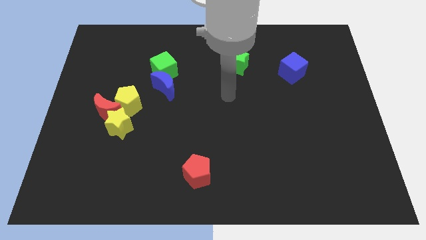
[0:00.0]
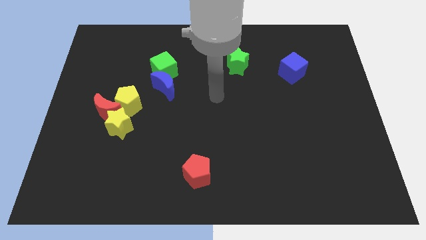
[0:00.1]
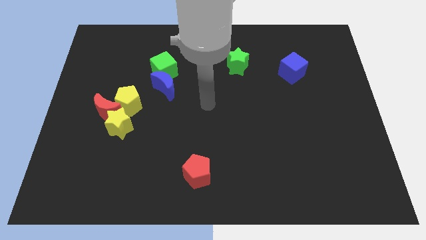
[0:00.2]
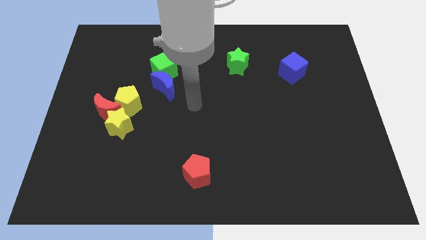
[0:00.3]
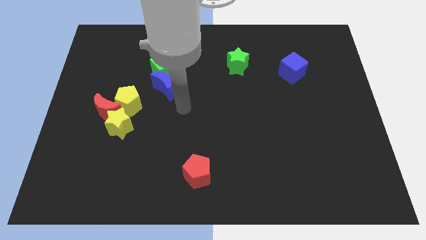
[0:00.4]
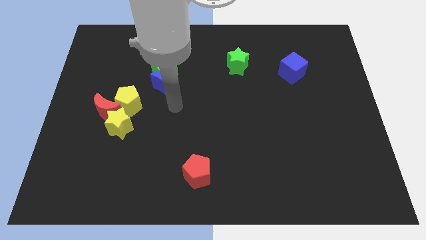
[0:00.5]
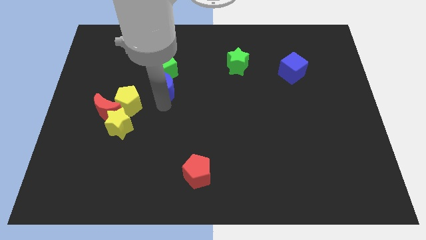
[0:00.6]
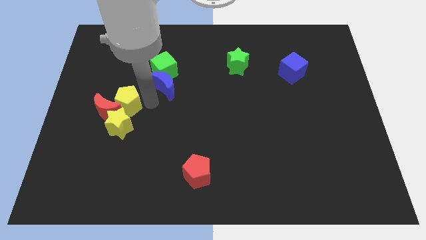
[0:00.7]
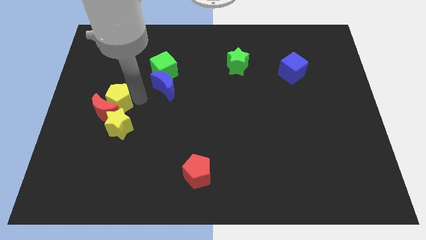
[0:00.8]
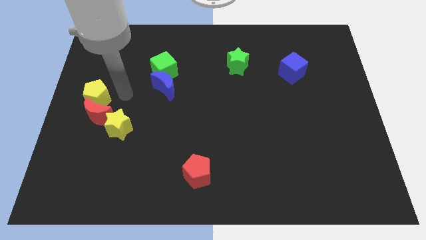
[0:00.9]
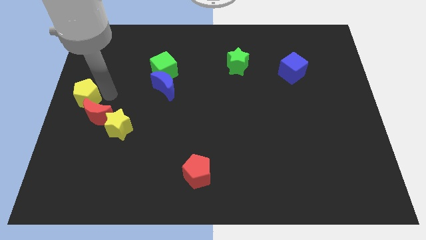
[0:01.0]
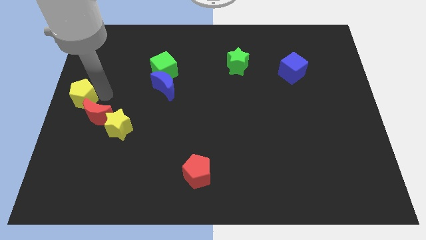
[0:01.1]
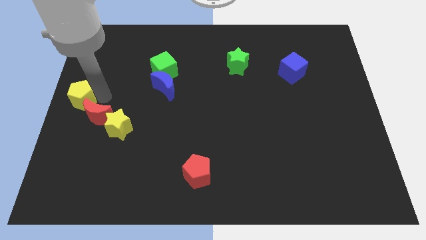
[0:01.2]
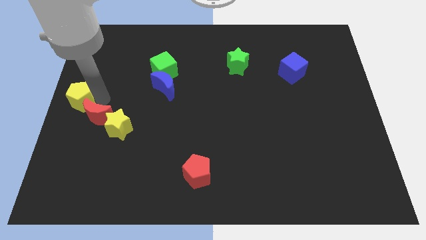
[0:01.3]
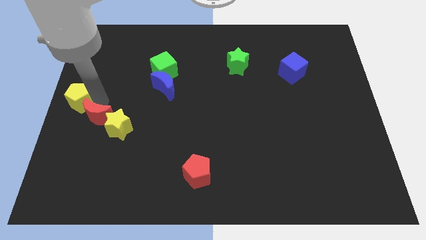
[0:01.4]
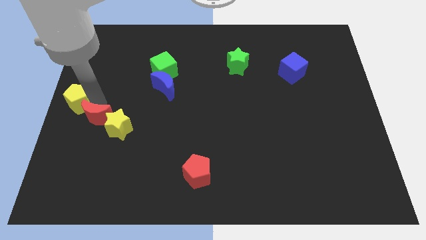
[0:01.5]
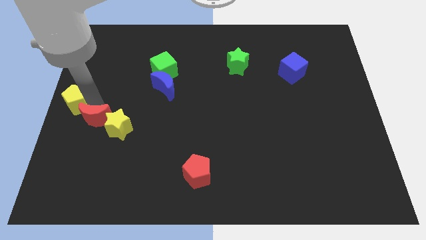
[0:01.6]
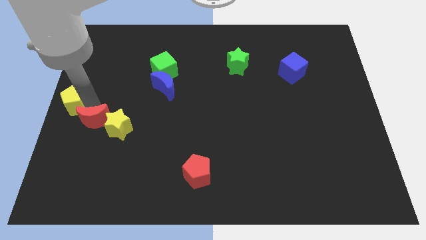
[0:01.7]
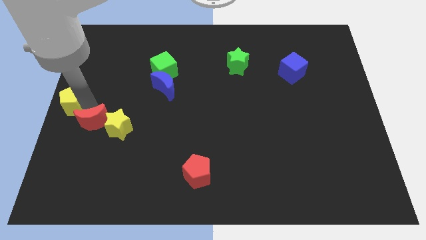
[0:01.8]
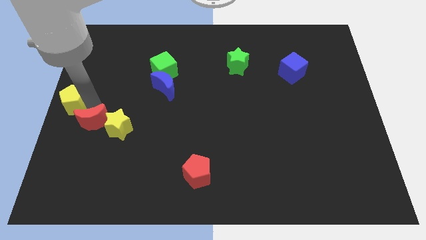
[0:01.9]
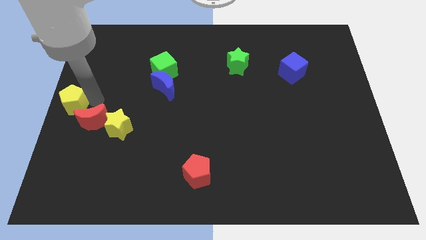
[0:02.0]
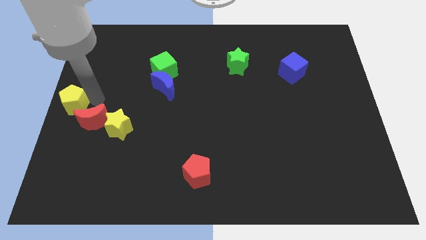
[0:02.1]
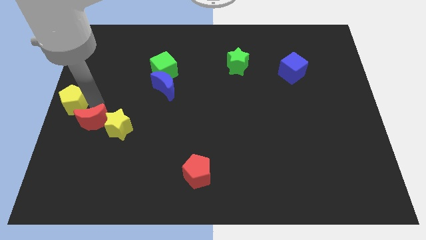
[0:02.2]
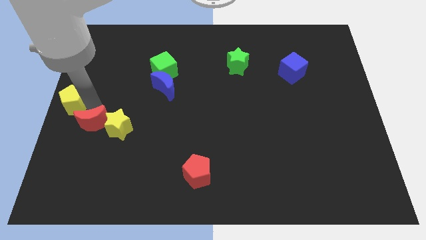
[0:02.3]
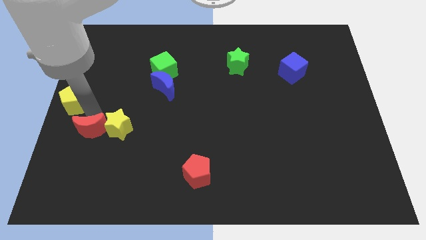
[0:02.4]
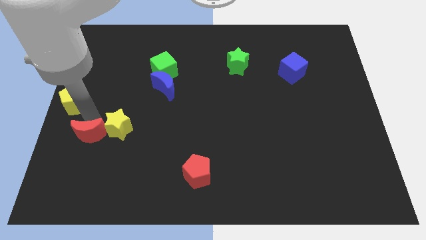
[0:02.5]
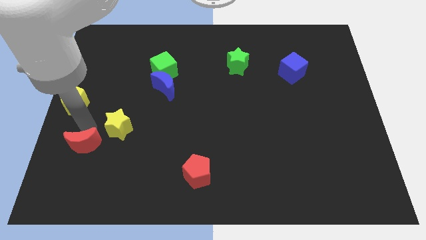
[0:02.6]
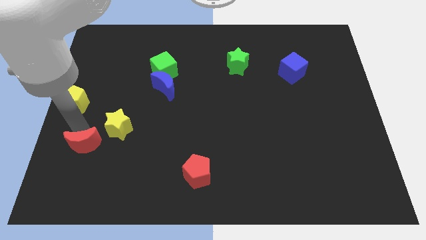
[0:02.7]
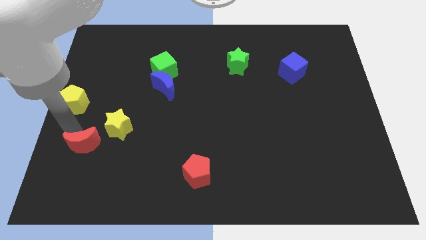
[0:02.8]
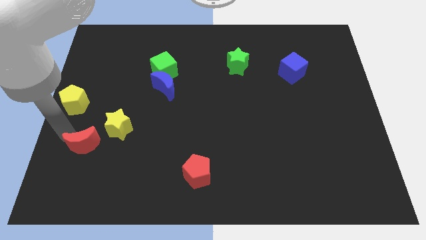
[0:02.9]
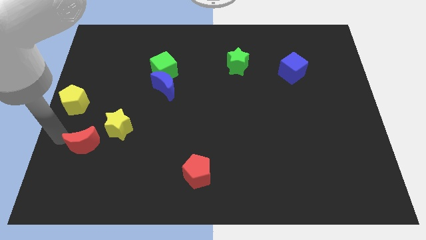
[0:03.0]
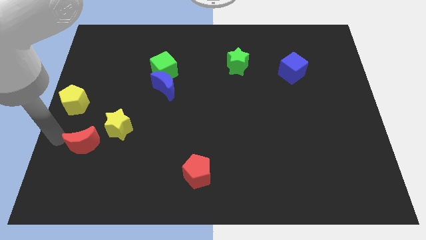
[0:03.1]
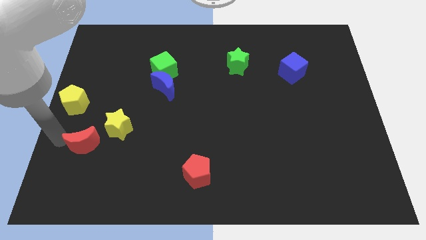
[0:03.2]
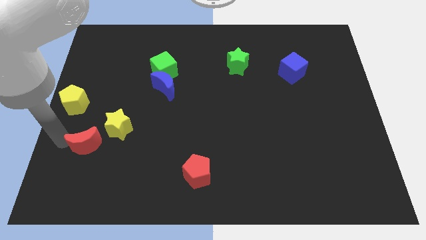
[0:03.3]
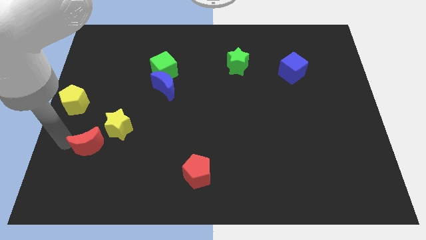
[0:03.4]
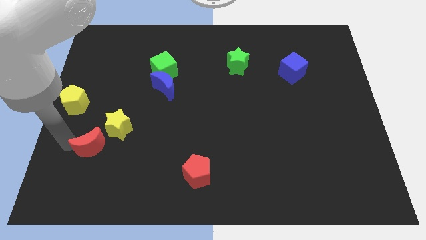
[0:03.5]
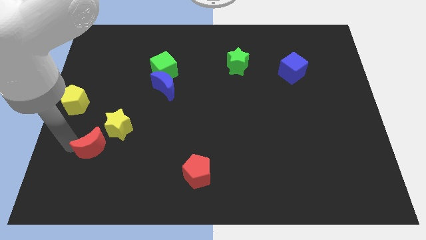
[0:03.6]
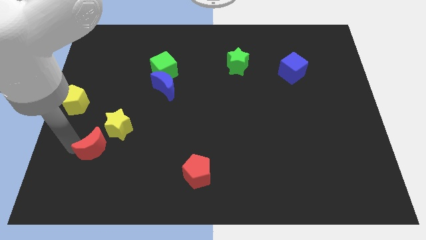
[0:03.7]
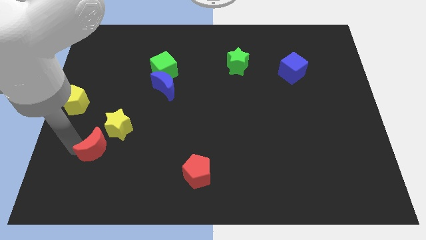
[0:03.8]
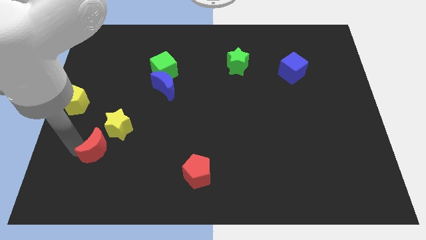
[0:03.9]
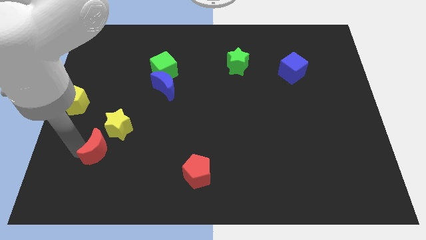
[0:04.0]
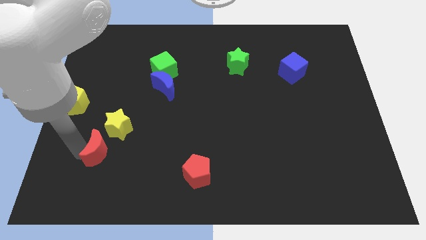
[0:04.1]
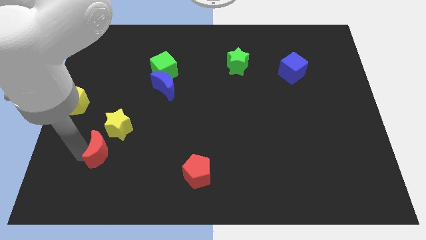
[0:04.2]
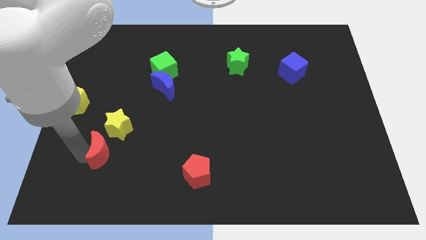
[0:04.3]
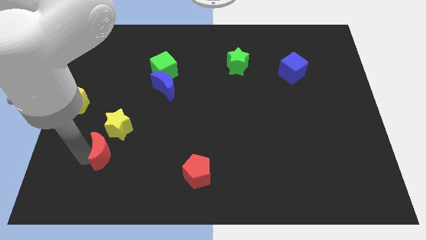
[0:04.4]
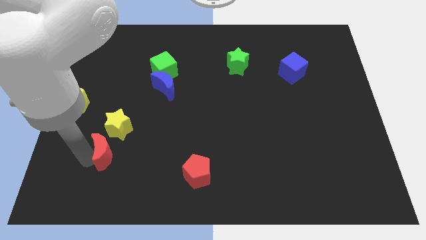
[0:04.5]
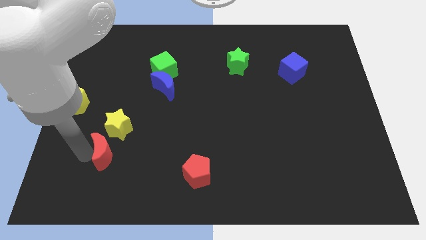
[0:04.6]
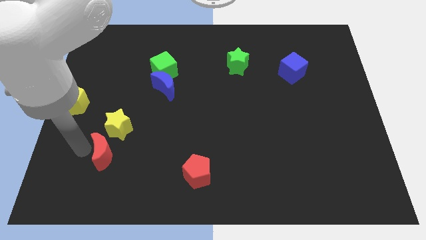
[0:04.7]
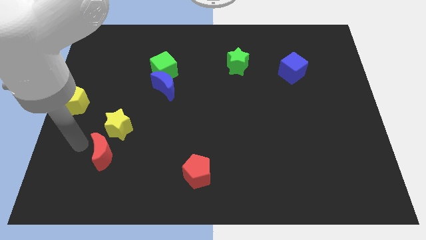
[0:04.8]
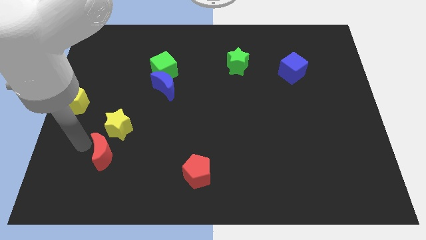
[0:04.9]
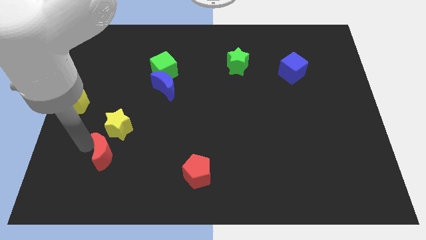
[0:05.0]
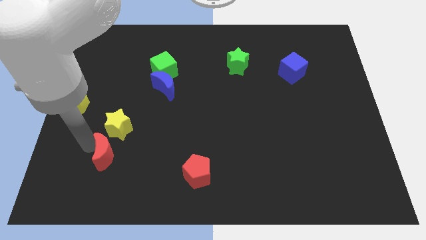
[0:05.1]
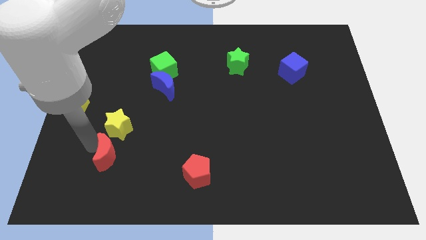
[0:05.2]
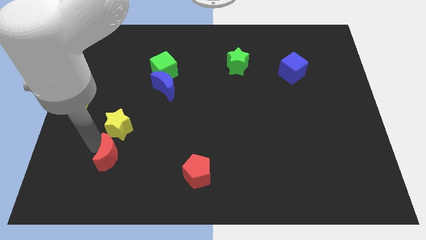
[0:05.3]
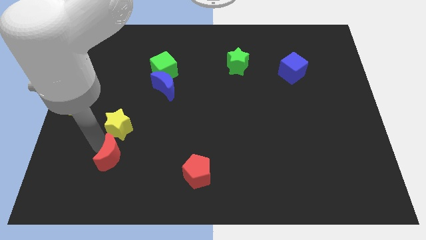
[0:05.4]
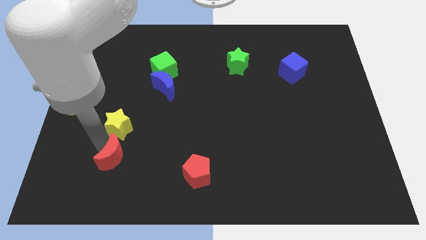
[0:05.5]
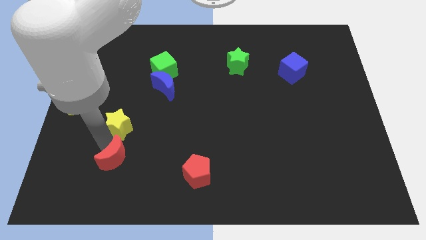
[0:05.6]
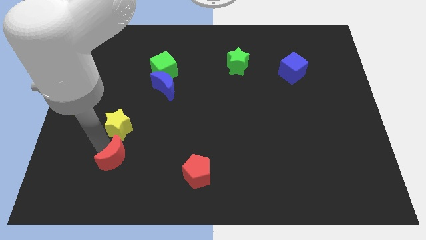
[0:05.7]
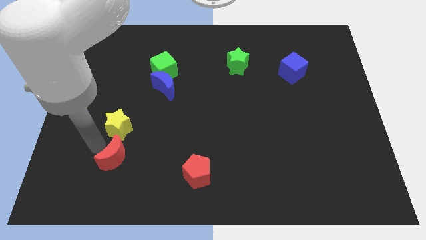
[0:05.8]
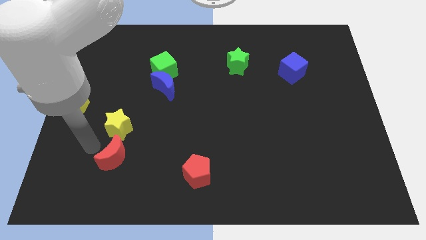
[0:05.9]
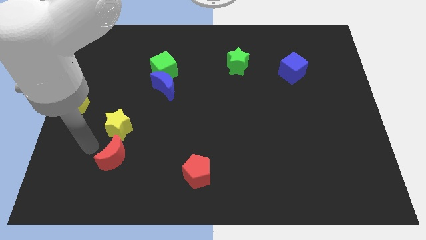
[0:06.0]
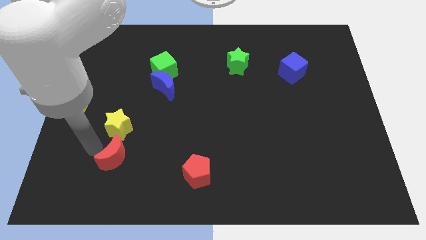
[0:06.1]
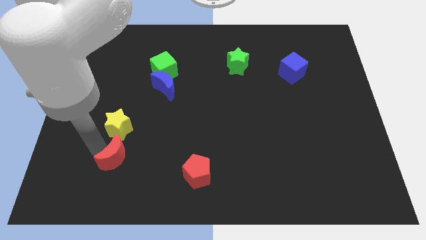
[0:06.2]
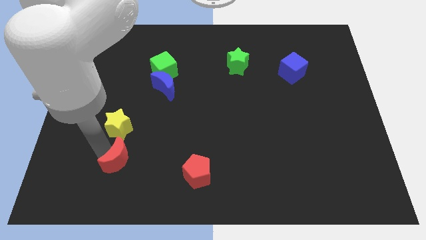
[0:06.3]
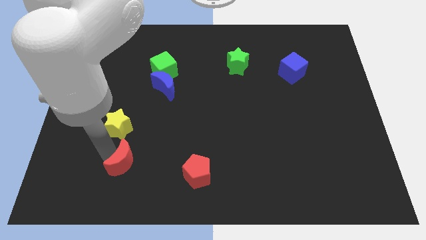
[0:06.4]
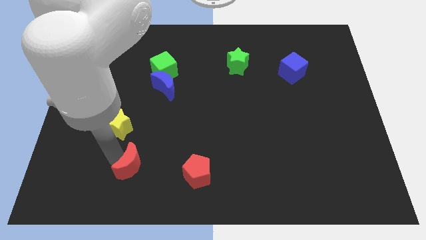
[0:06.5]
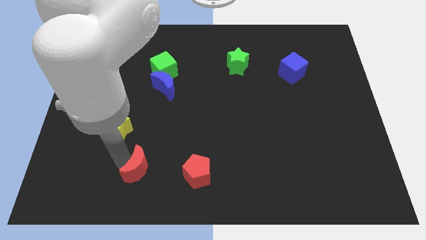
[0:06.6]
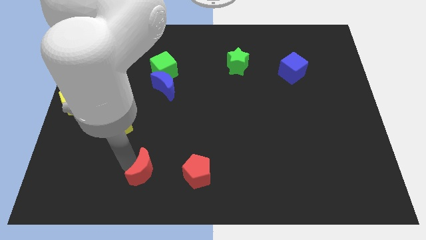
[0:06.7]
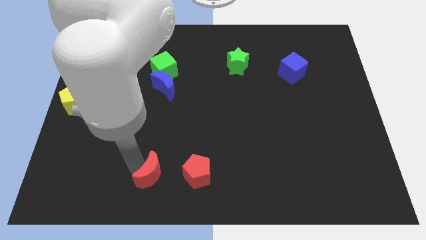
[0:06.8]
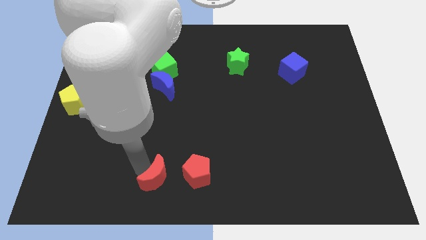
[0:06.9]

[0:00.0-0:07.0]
move the red moon to the bottom side
